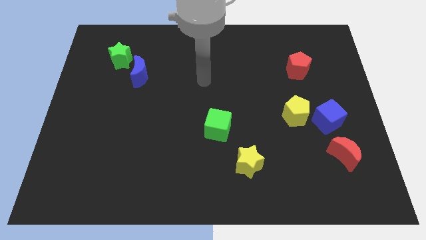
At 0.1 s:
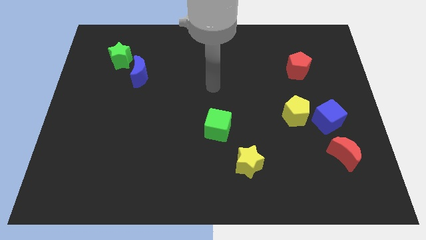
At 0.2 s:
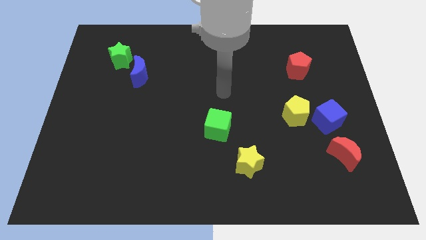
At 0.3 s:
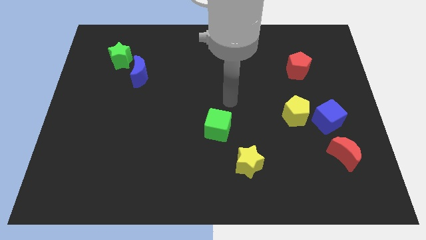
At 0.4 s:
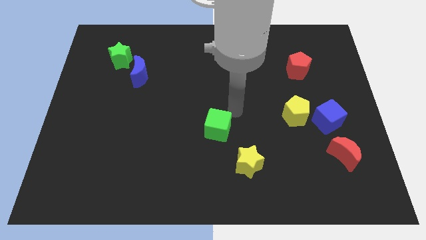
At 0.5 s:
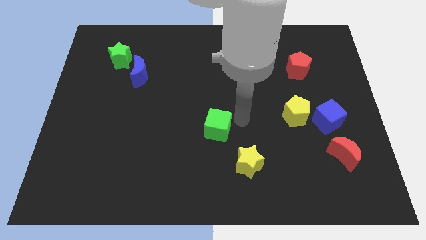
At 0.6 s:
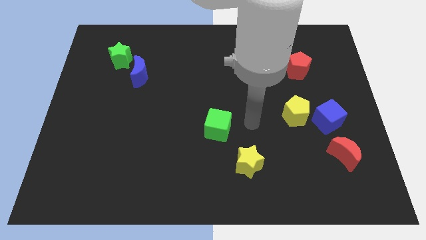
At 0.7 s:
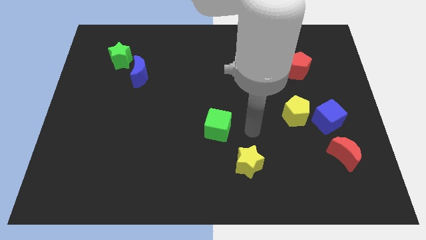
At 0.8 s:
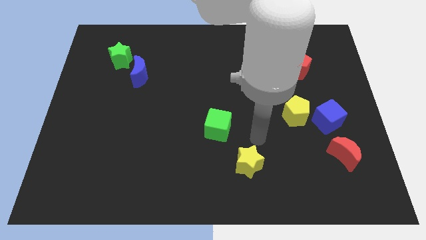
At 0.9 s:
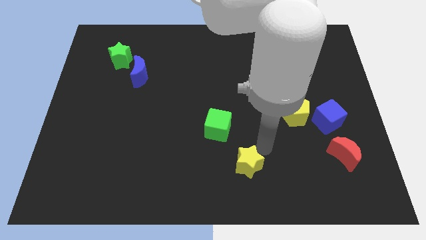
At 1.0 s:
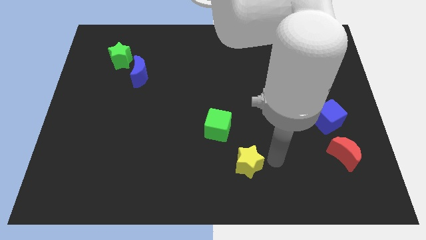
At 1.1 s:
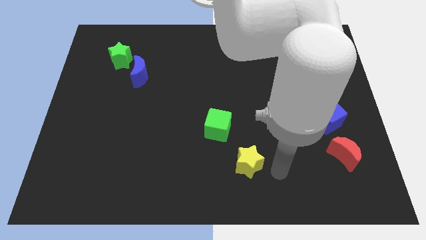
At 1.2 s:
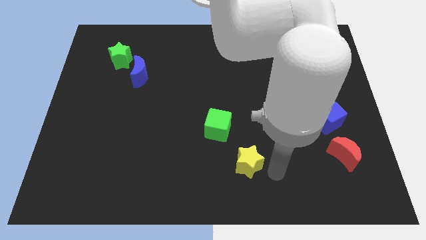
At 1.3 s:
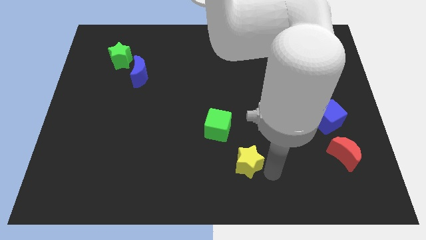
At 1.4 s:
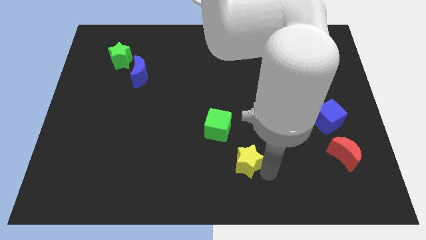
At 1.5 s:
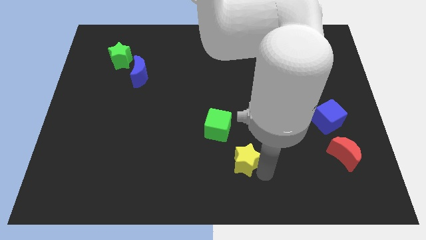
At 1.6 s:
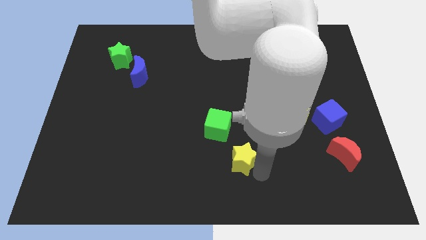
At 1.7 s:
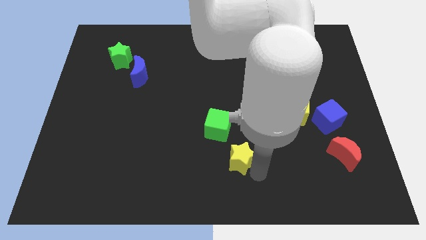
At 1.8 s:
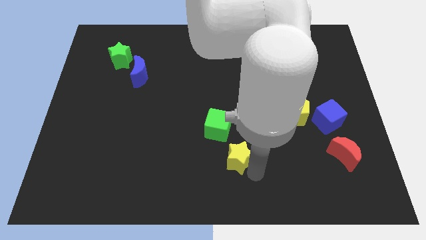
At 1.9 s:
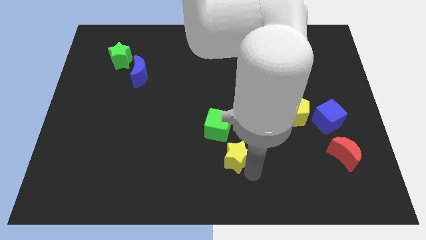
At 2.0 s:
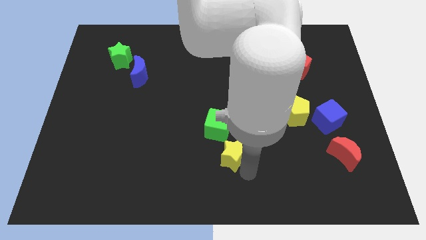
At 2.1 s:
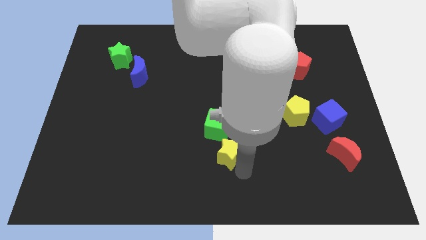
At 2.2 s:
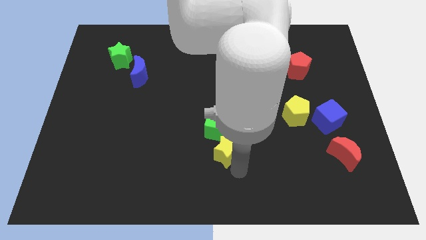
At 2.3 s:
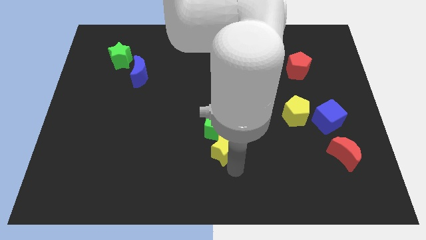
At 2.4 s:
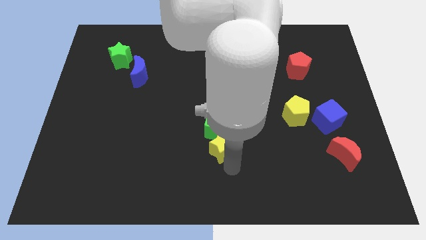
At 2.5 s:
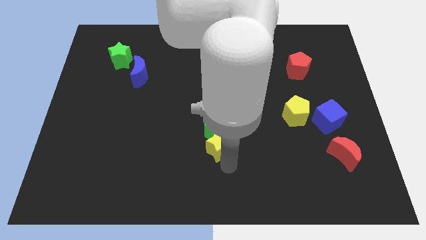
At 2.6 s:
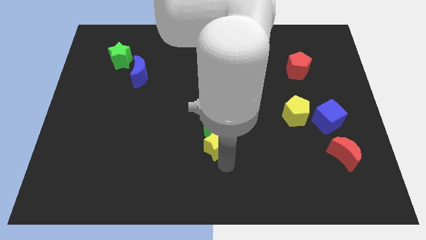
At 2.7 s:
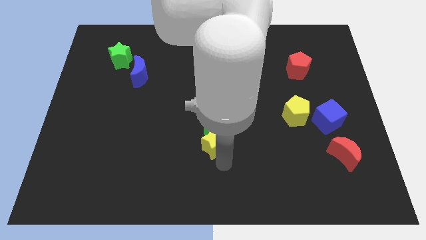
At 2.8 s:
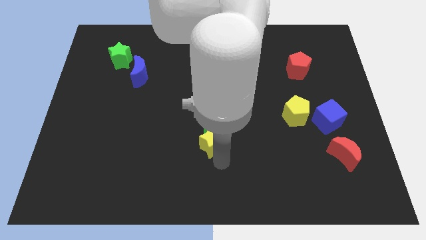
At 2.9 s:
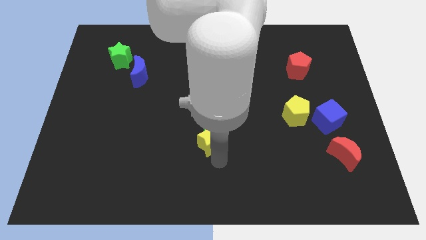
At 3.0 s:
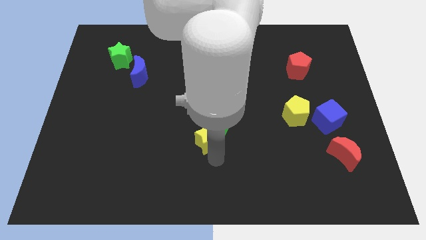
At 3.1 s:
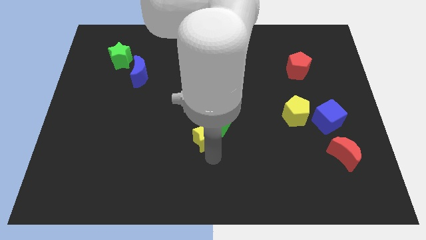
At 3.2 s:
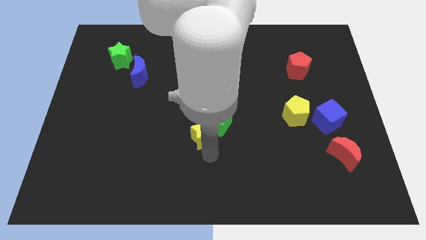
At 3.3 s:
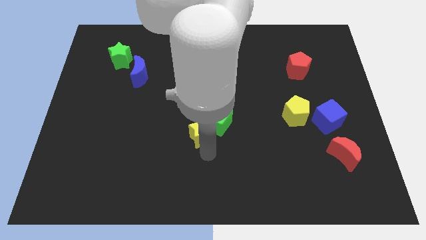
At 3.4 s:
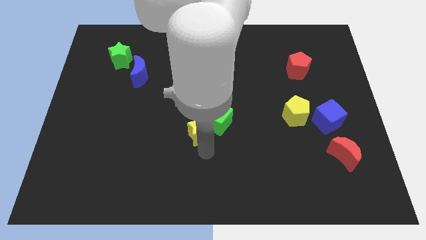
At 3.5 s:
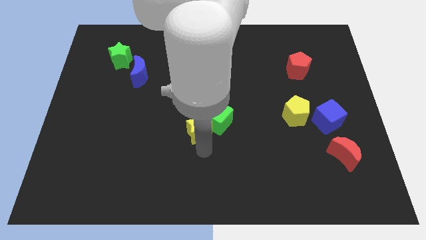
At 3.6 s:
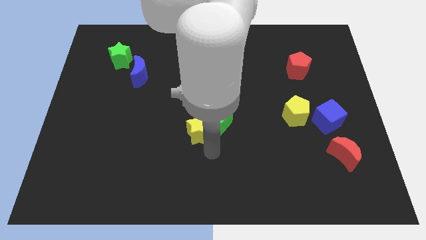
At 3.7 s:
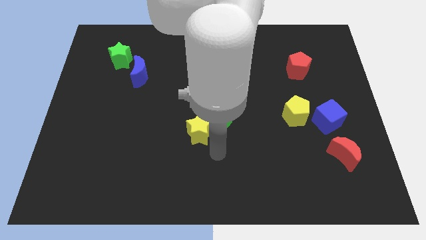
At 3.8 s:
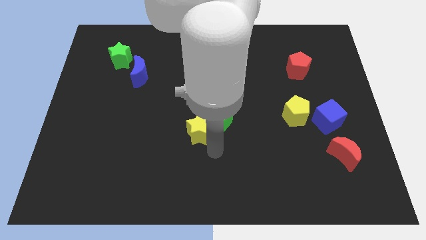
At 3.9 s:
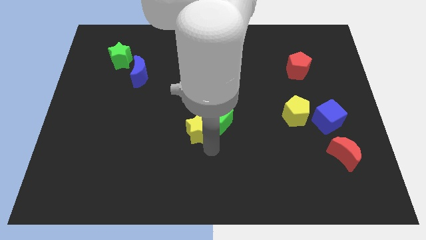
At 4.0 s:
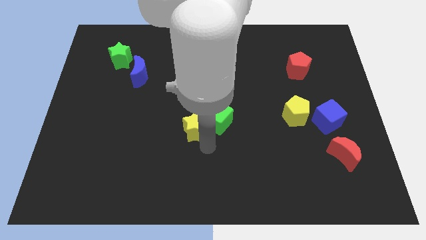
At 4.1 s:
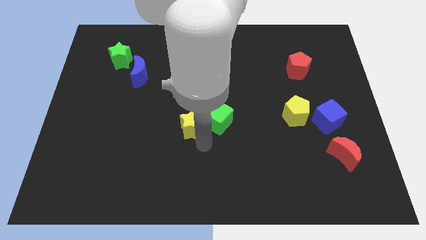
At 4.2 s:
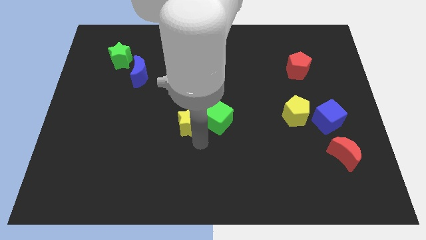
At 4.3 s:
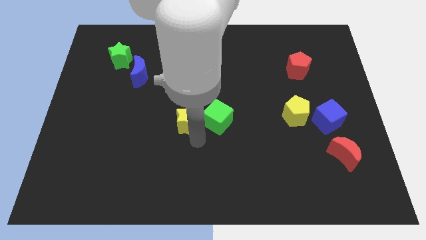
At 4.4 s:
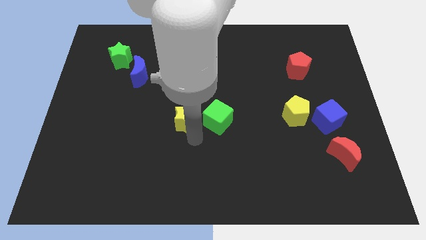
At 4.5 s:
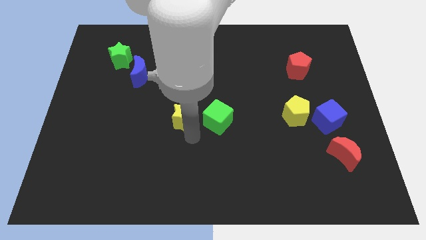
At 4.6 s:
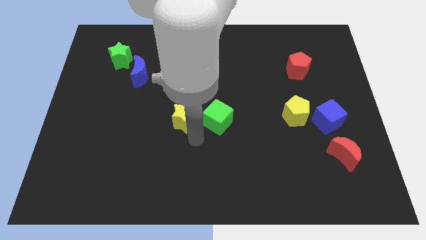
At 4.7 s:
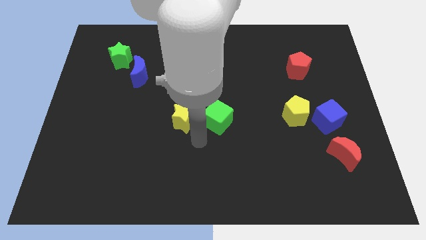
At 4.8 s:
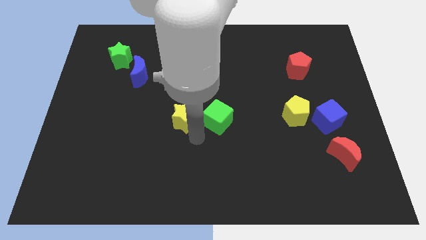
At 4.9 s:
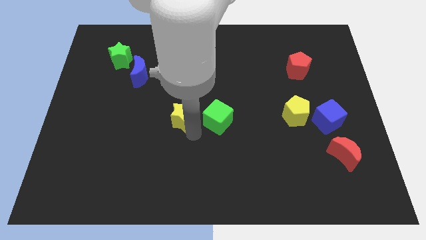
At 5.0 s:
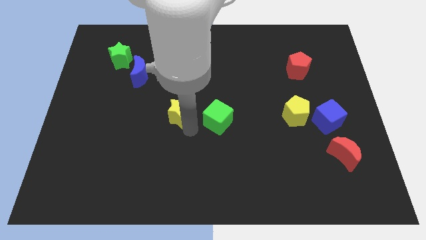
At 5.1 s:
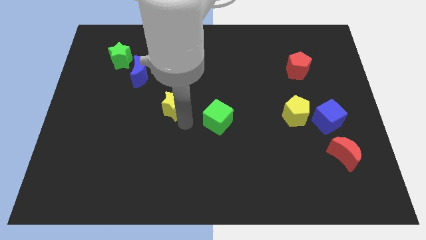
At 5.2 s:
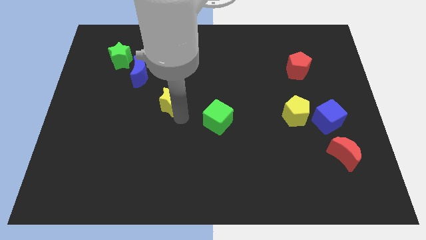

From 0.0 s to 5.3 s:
move the yellow star to the bottom right side of the blue moon

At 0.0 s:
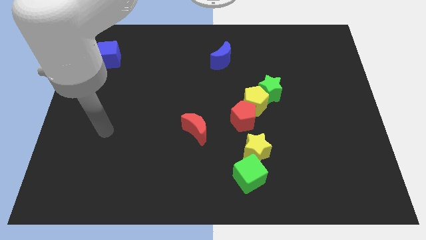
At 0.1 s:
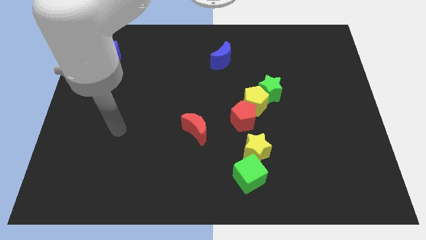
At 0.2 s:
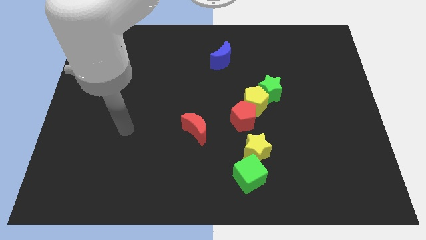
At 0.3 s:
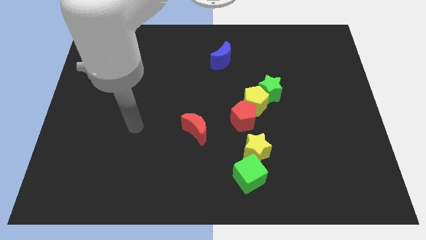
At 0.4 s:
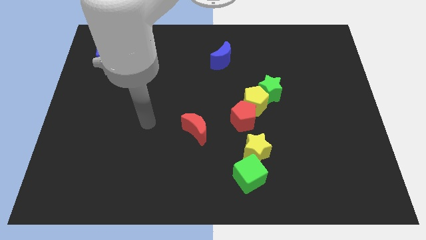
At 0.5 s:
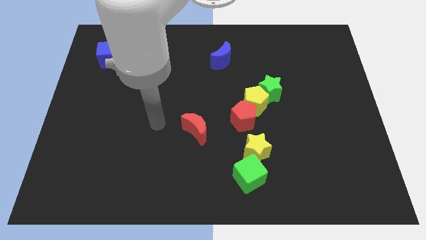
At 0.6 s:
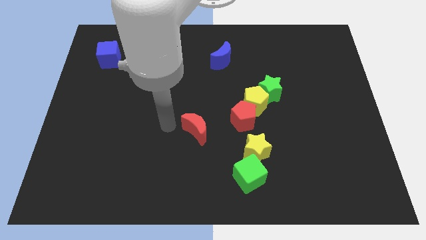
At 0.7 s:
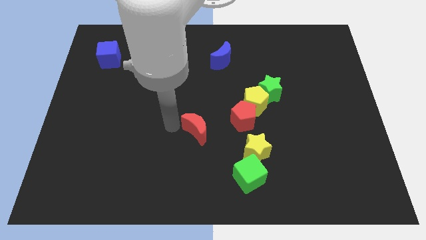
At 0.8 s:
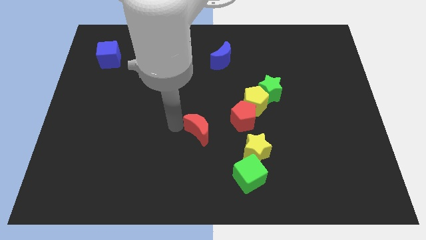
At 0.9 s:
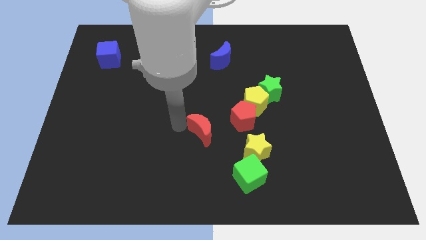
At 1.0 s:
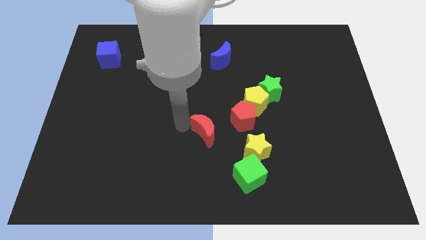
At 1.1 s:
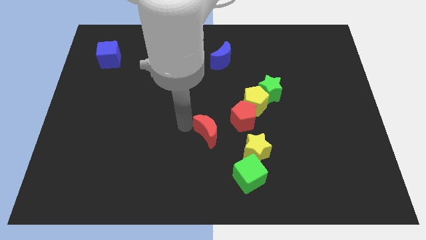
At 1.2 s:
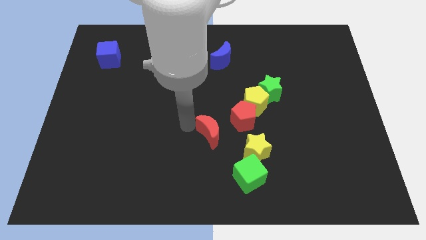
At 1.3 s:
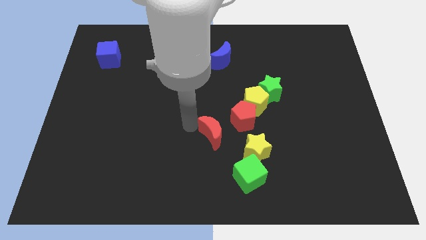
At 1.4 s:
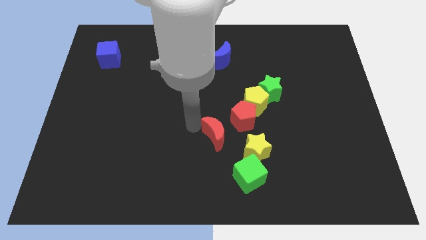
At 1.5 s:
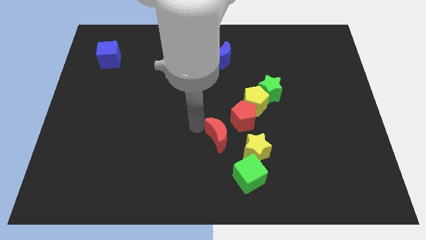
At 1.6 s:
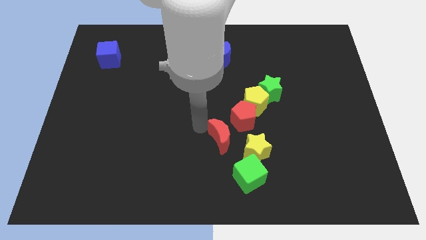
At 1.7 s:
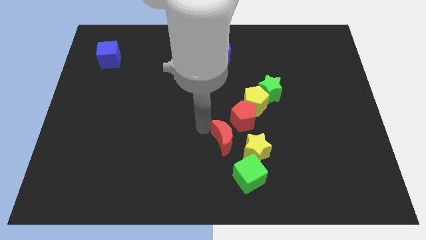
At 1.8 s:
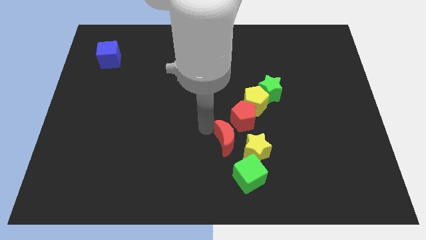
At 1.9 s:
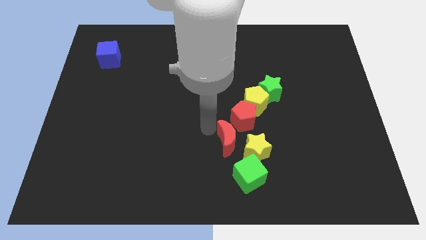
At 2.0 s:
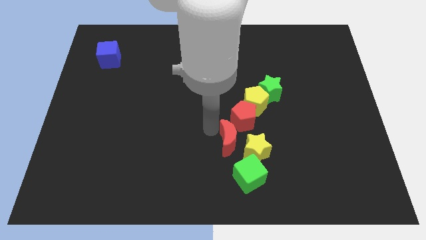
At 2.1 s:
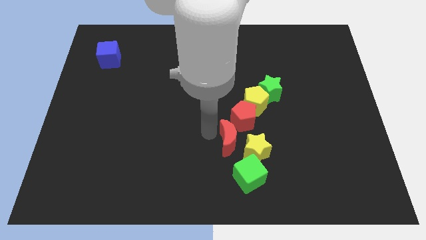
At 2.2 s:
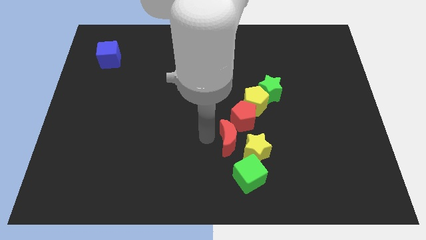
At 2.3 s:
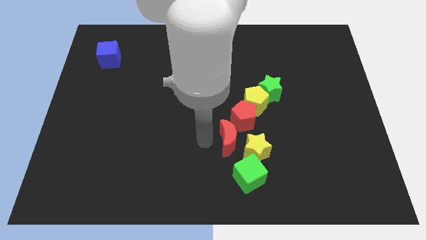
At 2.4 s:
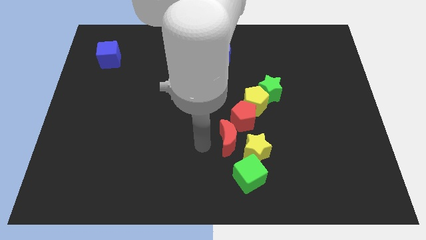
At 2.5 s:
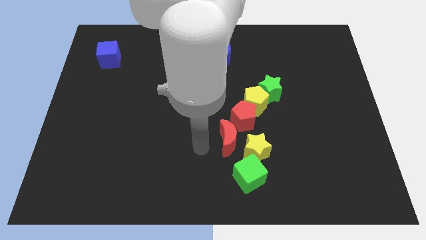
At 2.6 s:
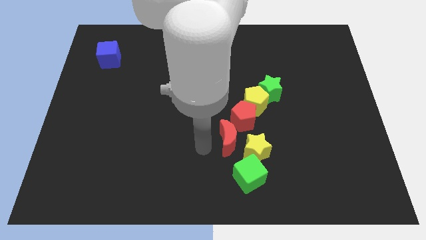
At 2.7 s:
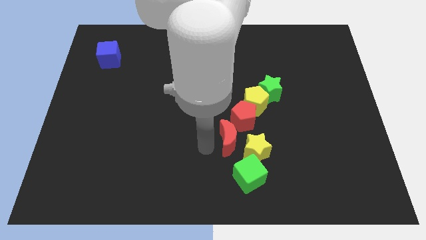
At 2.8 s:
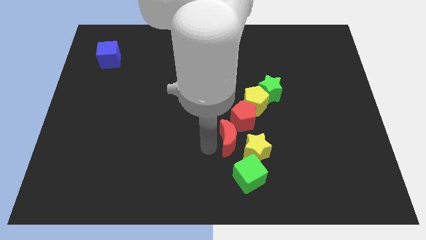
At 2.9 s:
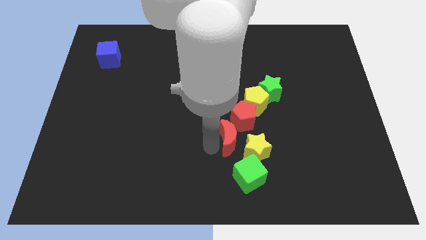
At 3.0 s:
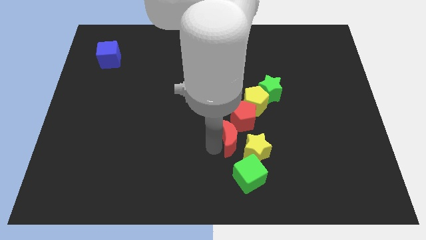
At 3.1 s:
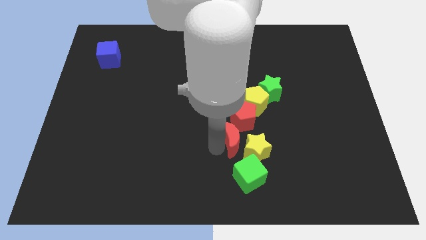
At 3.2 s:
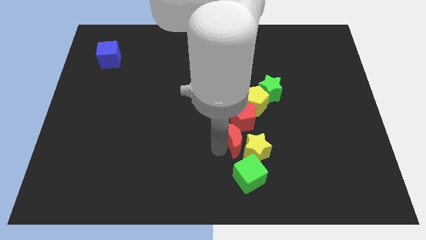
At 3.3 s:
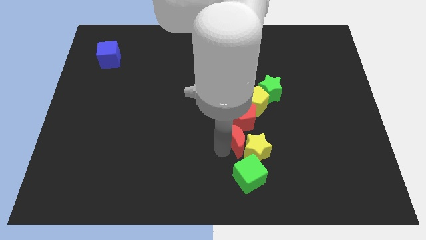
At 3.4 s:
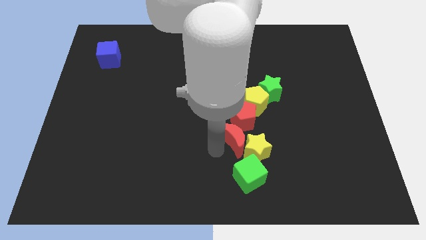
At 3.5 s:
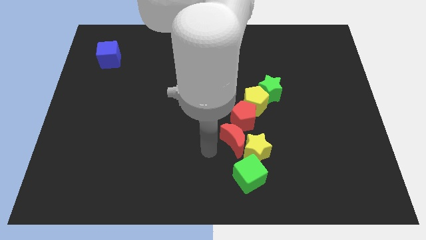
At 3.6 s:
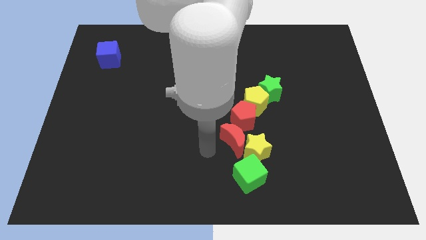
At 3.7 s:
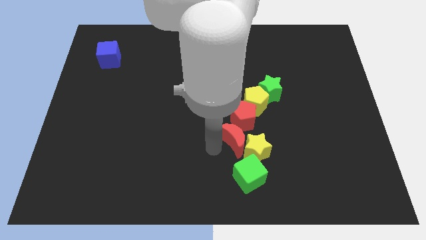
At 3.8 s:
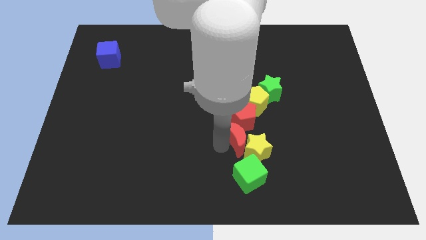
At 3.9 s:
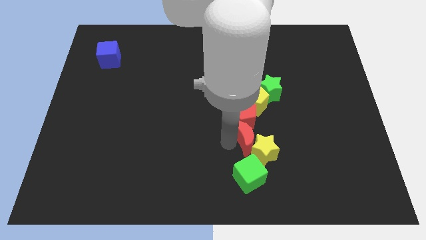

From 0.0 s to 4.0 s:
put the red moon to the bottom right side of the red pentagon
